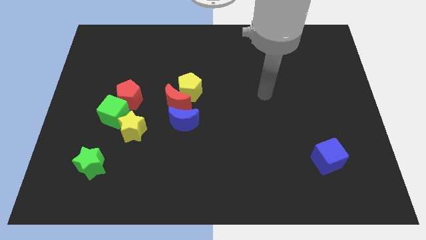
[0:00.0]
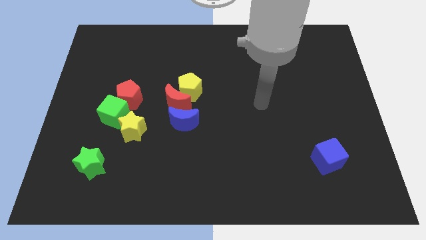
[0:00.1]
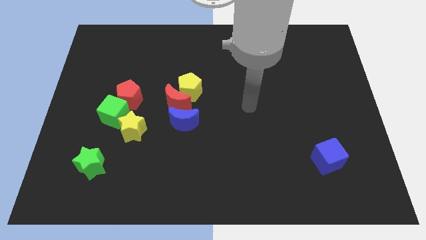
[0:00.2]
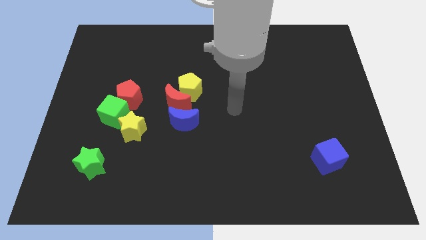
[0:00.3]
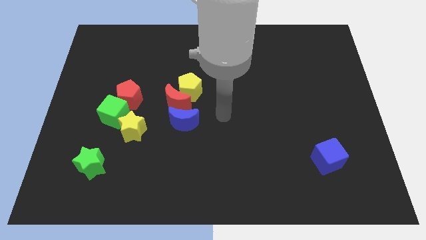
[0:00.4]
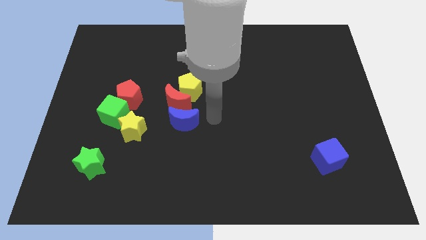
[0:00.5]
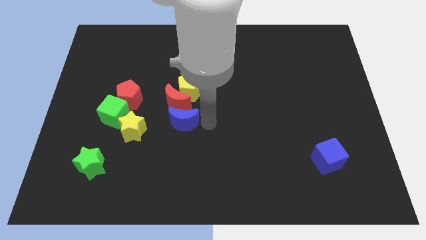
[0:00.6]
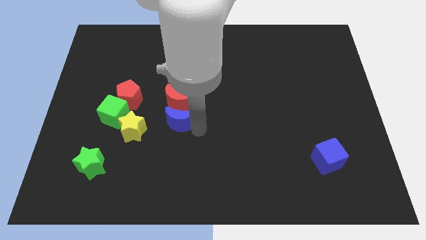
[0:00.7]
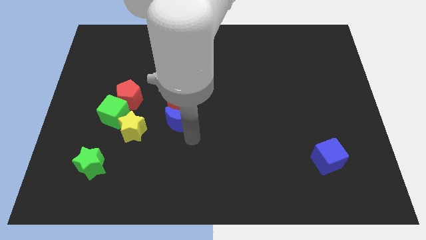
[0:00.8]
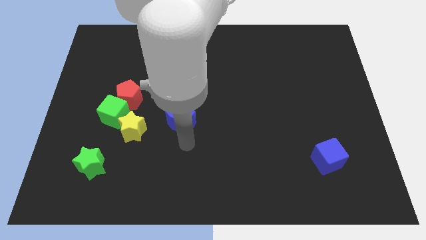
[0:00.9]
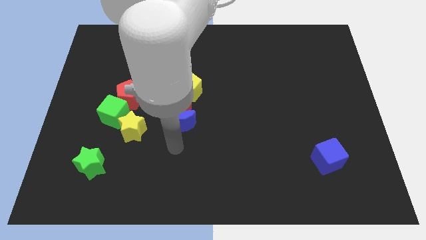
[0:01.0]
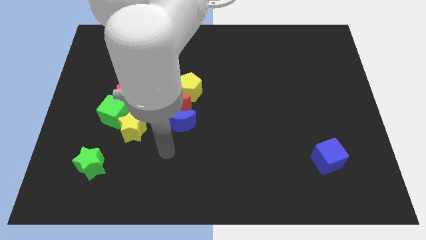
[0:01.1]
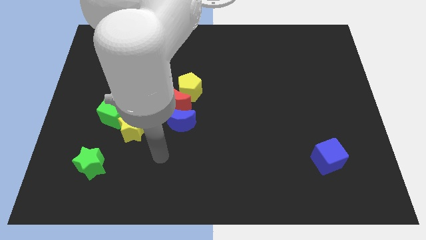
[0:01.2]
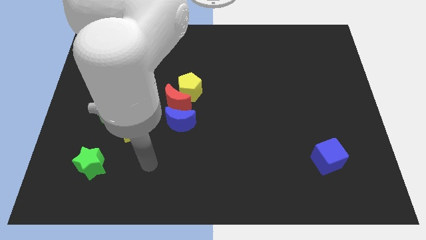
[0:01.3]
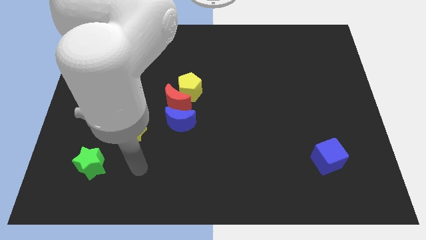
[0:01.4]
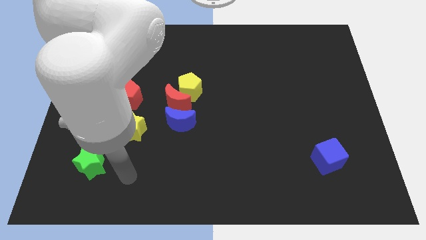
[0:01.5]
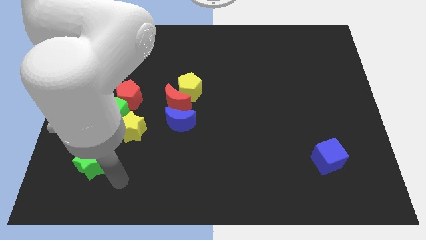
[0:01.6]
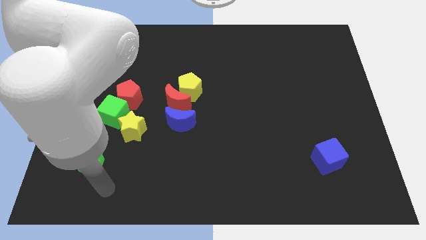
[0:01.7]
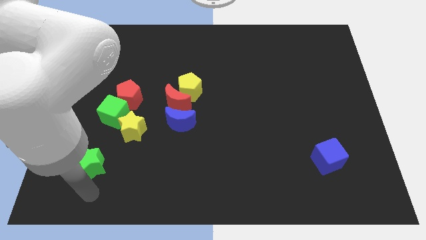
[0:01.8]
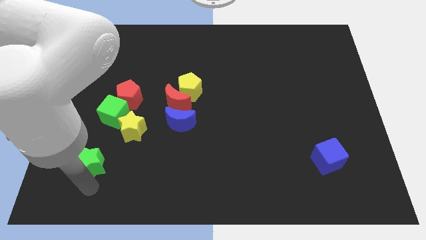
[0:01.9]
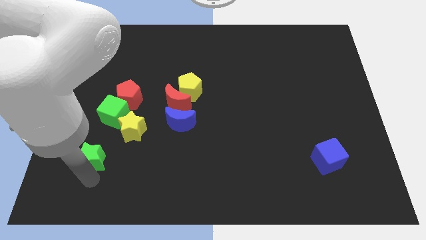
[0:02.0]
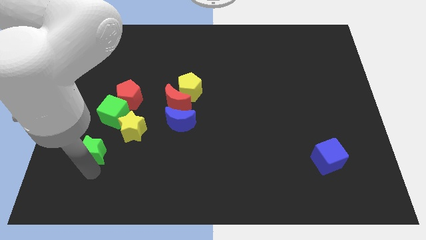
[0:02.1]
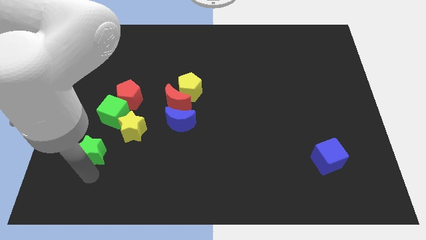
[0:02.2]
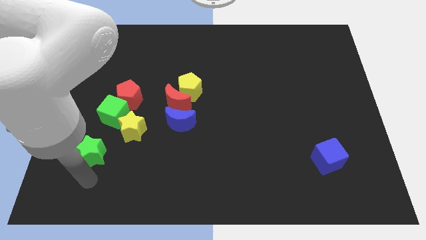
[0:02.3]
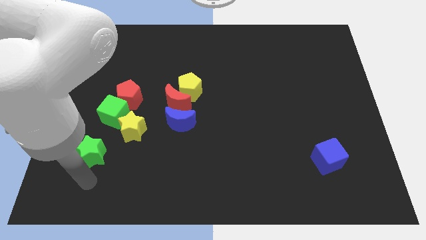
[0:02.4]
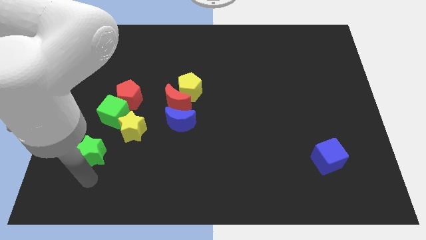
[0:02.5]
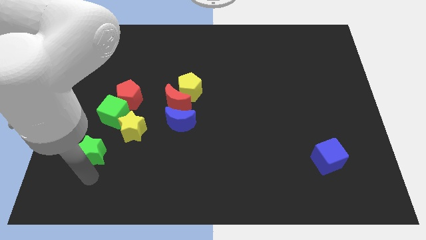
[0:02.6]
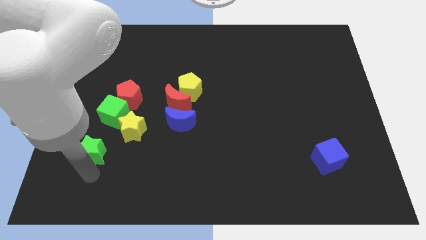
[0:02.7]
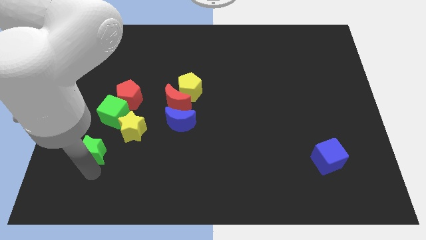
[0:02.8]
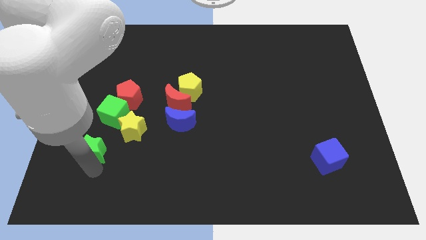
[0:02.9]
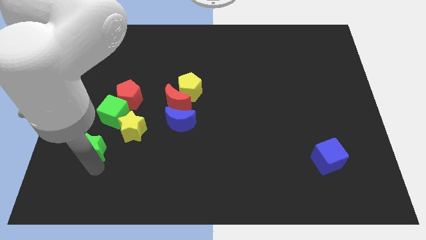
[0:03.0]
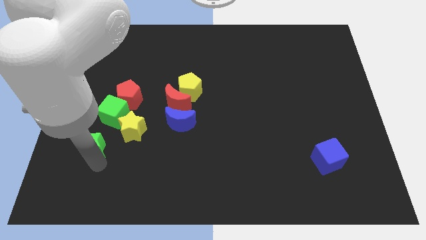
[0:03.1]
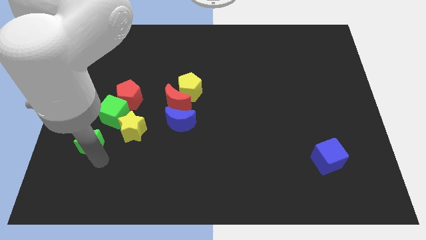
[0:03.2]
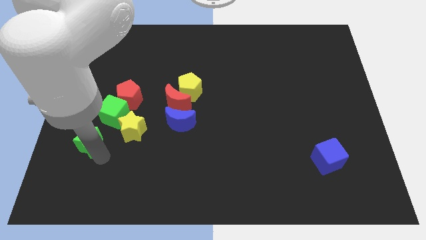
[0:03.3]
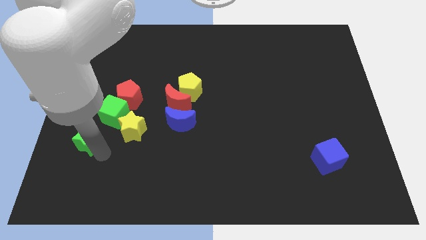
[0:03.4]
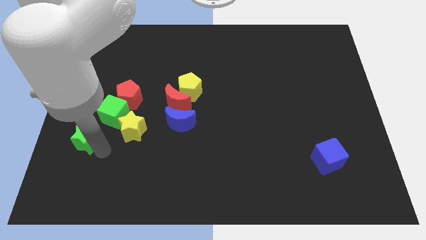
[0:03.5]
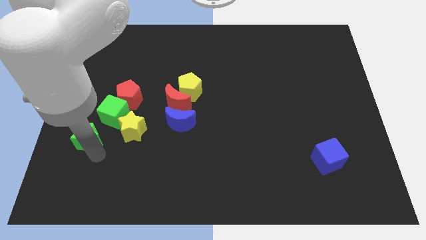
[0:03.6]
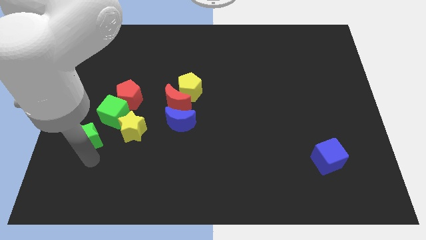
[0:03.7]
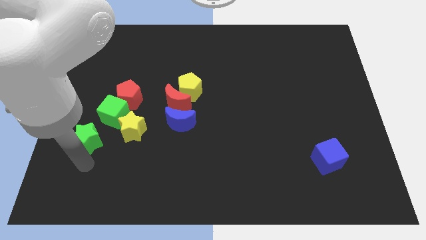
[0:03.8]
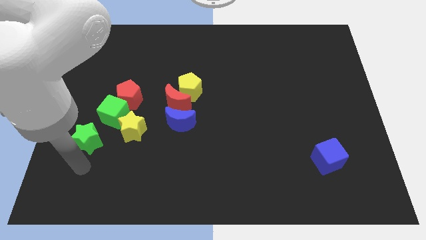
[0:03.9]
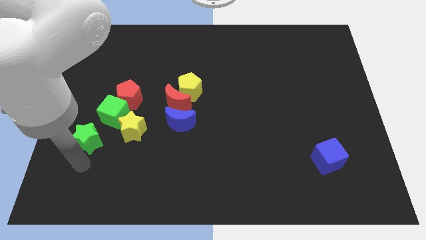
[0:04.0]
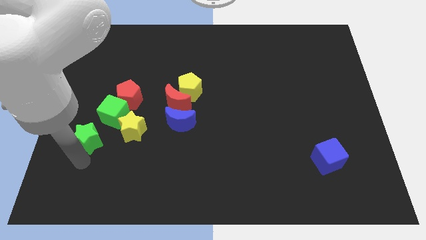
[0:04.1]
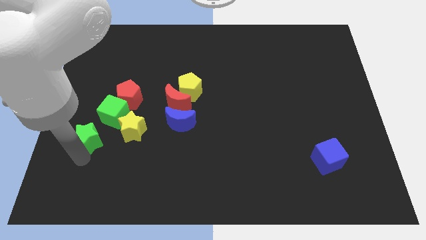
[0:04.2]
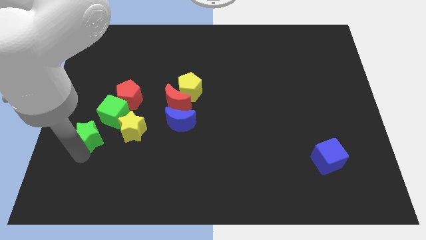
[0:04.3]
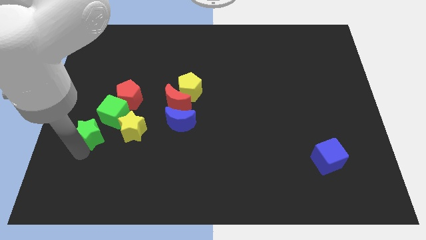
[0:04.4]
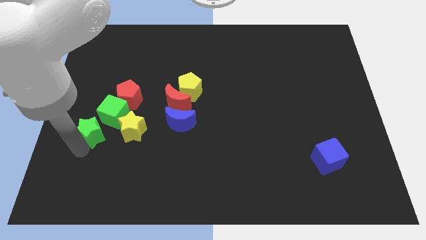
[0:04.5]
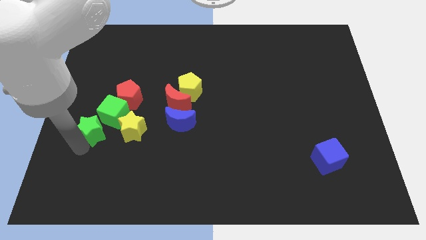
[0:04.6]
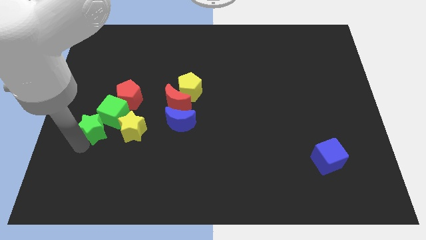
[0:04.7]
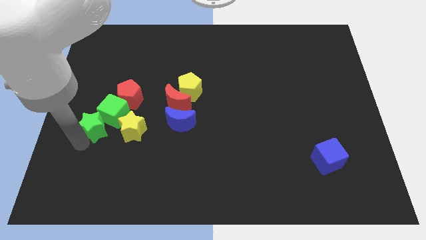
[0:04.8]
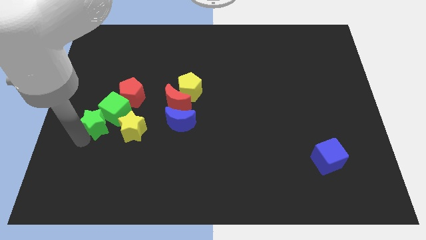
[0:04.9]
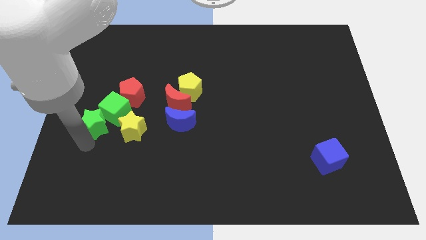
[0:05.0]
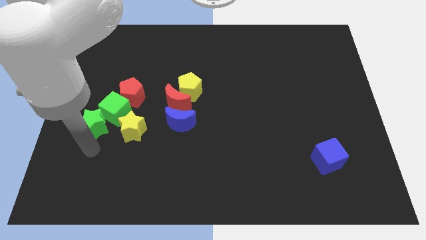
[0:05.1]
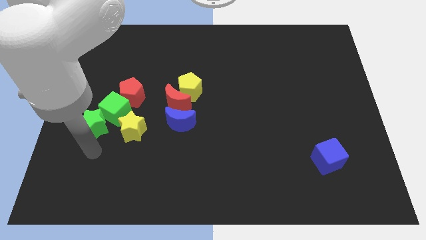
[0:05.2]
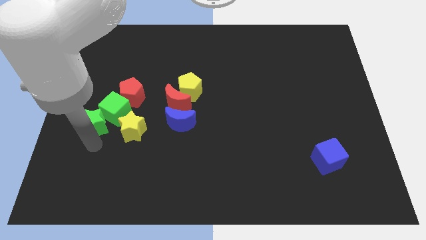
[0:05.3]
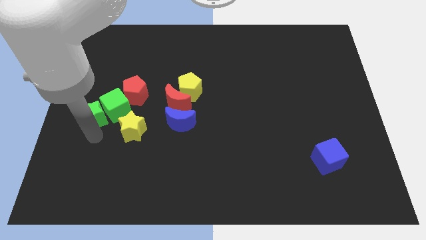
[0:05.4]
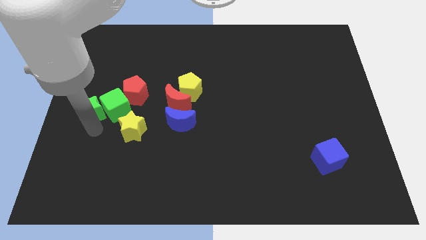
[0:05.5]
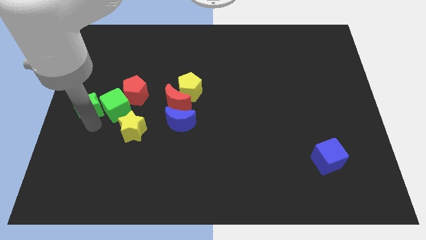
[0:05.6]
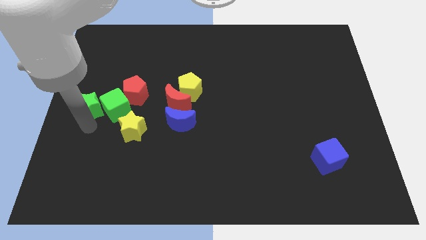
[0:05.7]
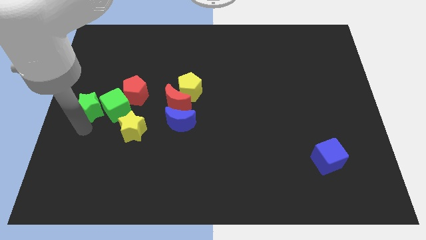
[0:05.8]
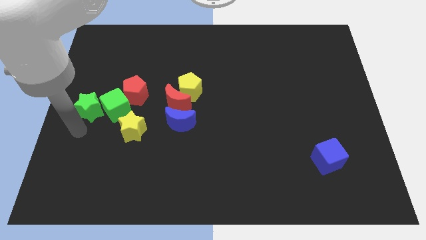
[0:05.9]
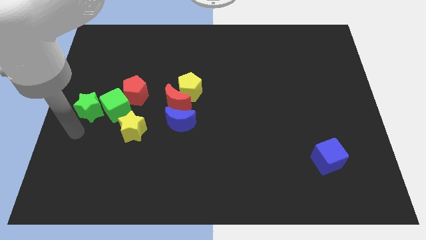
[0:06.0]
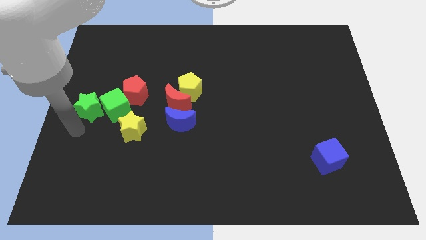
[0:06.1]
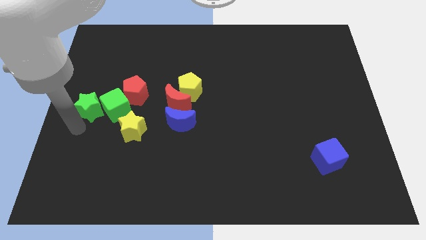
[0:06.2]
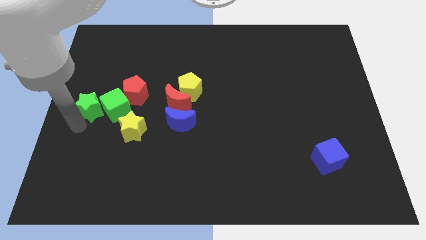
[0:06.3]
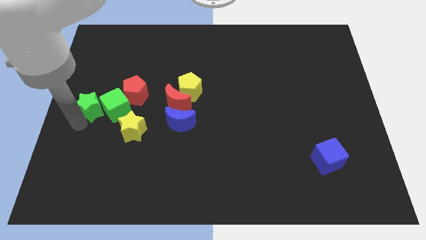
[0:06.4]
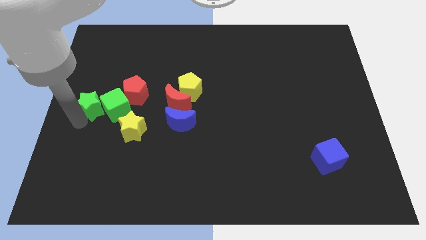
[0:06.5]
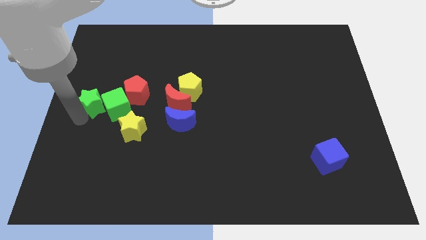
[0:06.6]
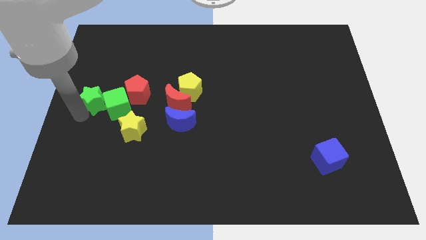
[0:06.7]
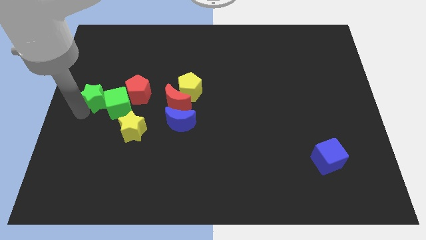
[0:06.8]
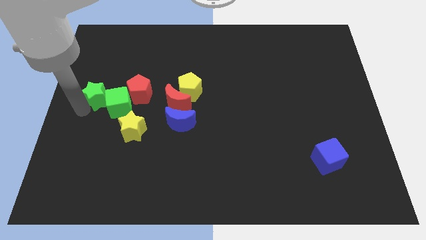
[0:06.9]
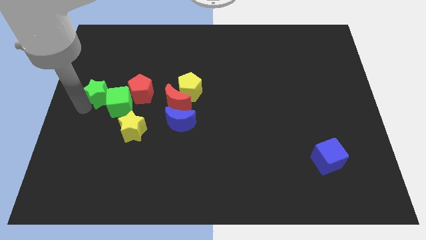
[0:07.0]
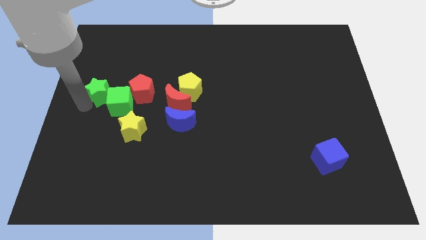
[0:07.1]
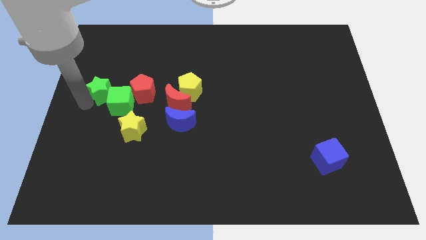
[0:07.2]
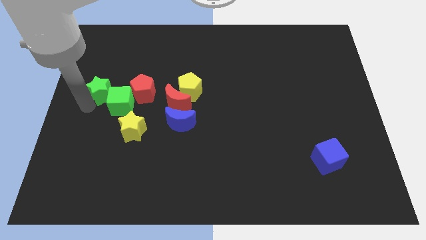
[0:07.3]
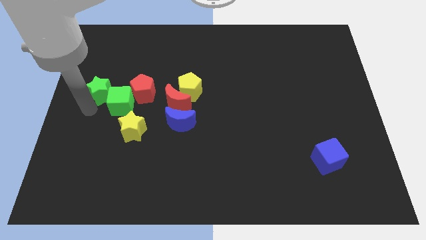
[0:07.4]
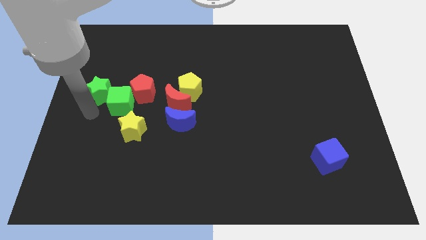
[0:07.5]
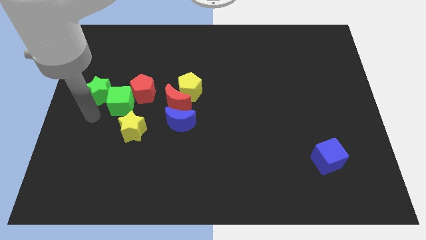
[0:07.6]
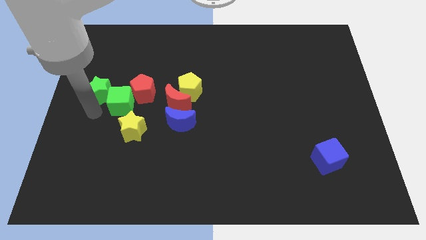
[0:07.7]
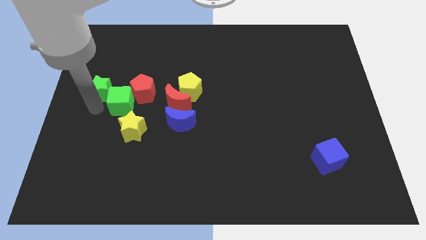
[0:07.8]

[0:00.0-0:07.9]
move the green star up
